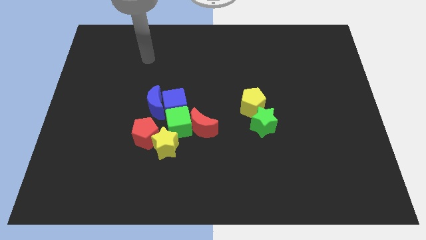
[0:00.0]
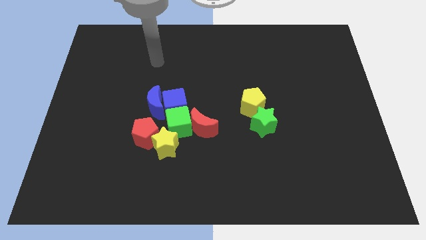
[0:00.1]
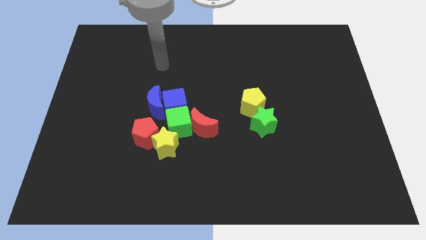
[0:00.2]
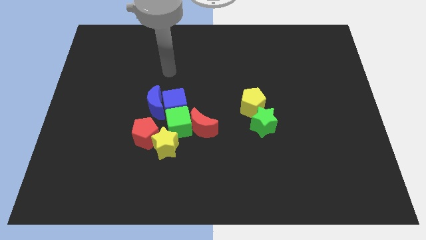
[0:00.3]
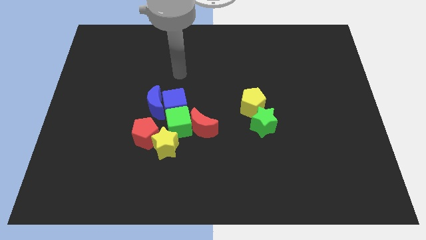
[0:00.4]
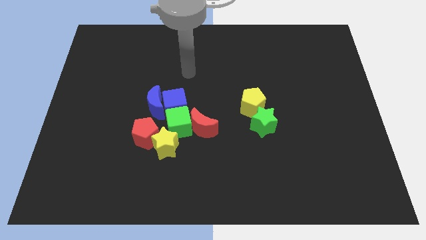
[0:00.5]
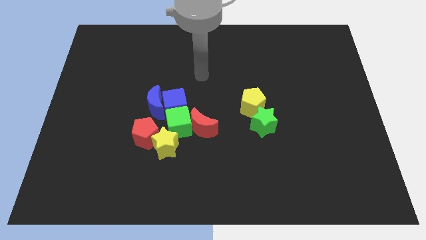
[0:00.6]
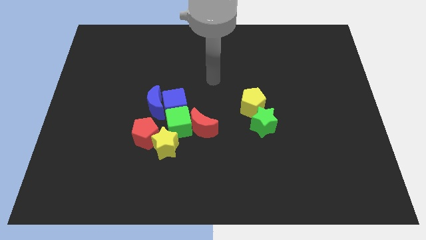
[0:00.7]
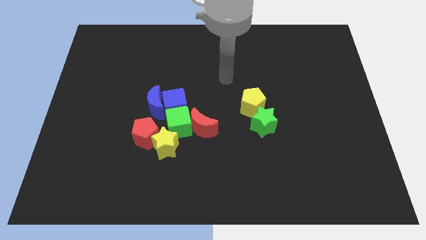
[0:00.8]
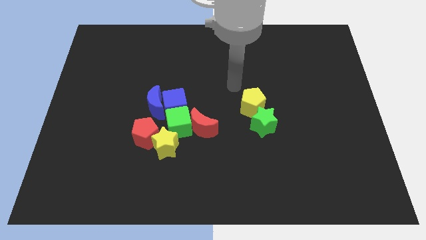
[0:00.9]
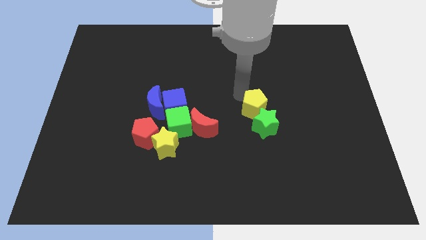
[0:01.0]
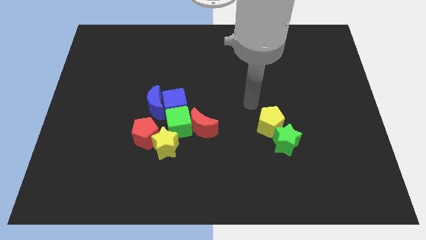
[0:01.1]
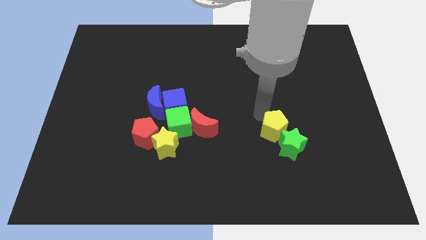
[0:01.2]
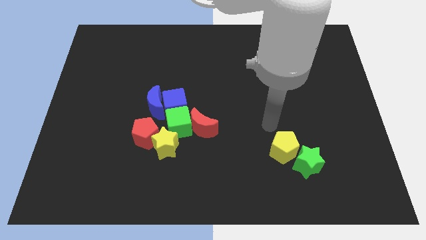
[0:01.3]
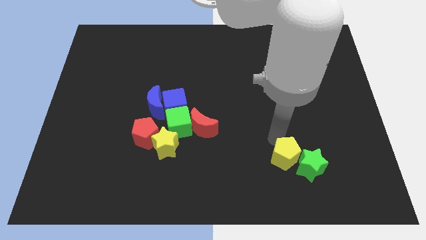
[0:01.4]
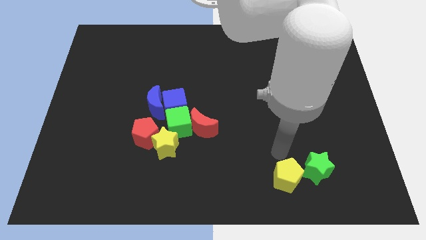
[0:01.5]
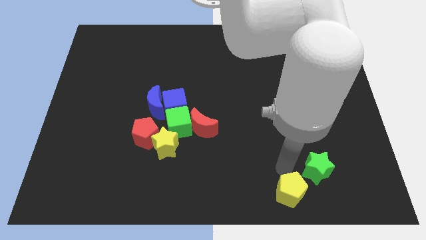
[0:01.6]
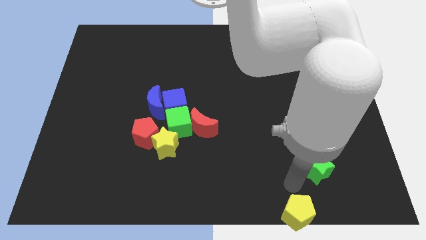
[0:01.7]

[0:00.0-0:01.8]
move the green star away from the yellow pentagon

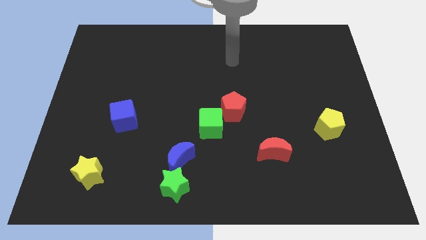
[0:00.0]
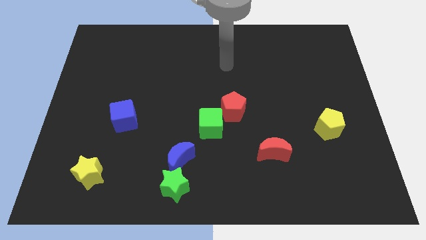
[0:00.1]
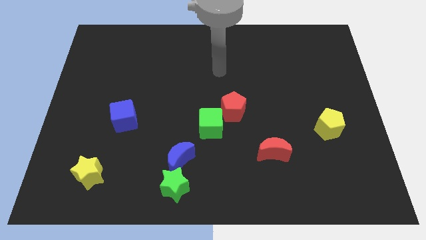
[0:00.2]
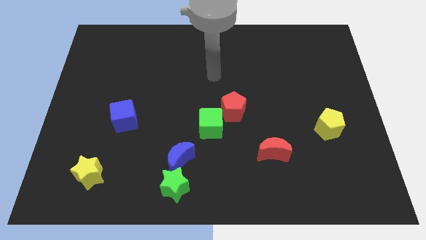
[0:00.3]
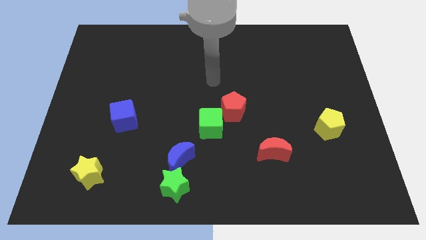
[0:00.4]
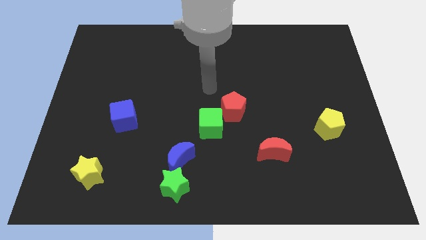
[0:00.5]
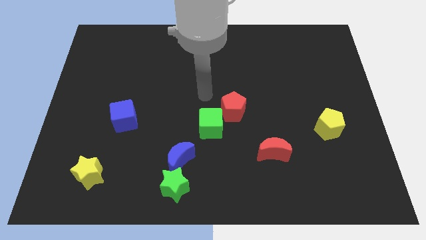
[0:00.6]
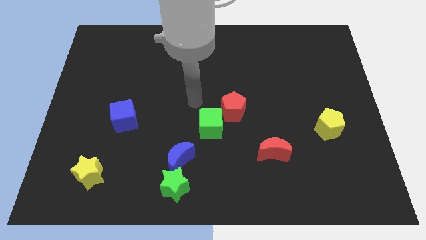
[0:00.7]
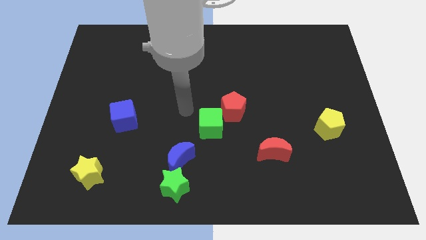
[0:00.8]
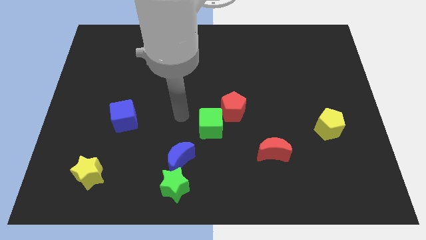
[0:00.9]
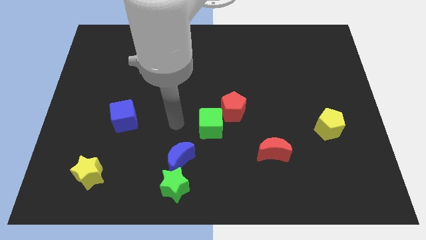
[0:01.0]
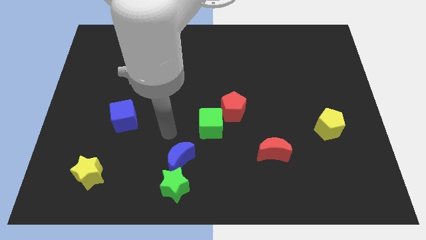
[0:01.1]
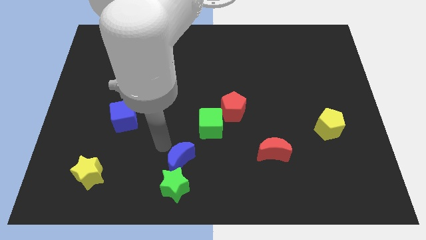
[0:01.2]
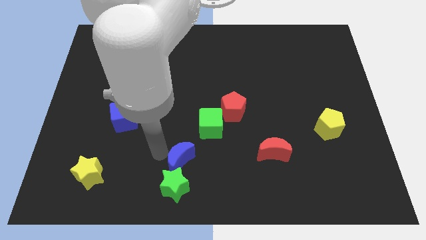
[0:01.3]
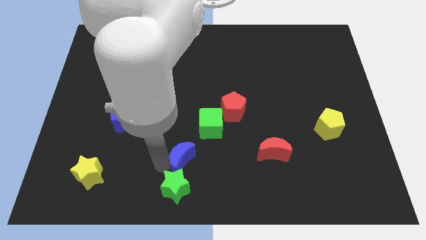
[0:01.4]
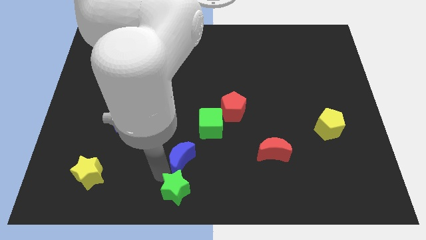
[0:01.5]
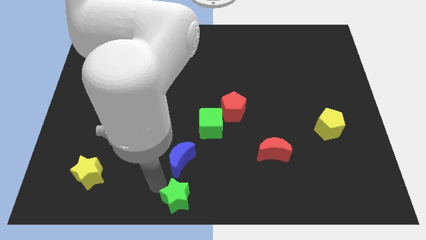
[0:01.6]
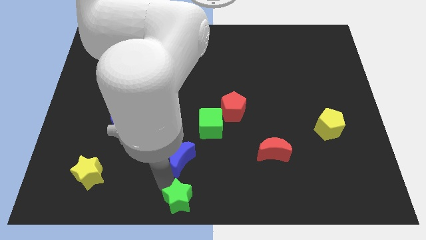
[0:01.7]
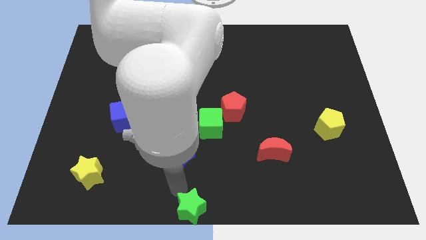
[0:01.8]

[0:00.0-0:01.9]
move the blue moon away from the green star

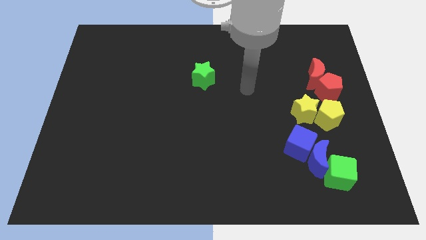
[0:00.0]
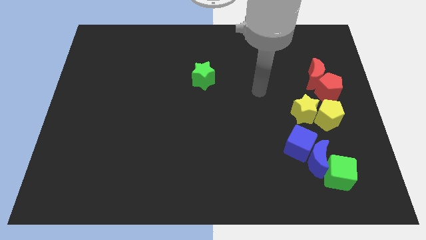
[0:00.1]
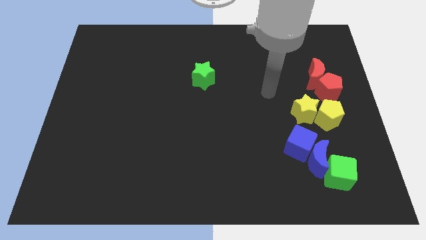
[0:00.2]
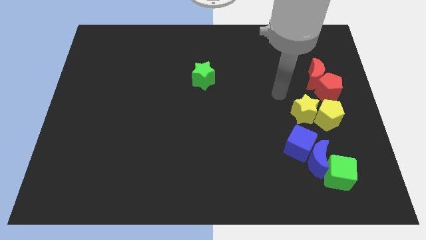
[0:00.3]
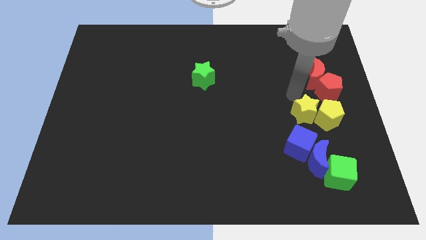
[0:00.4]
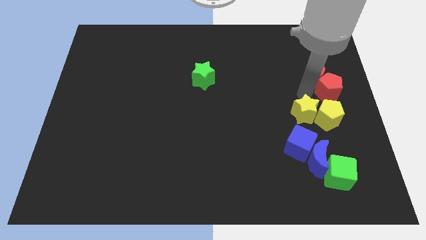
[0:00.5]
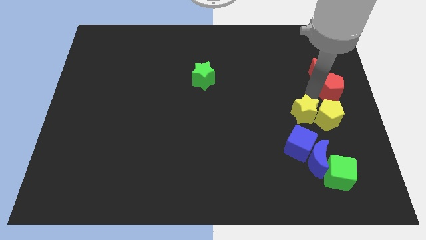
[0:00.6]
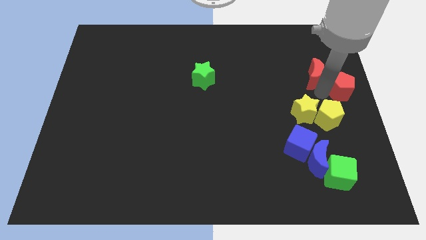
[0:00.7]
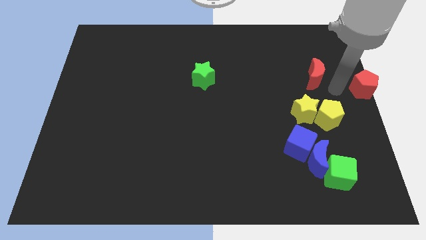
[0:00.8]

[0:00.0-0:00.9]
separate the red moon from the red pentagon

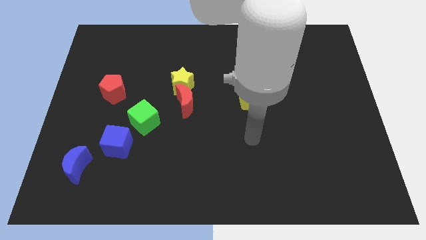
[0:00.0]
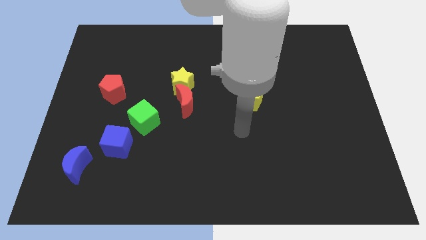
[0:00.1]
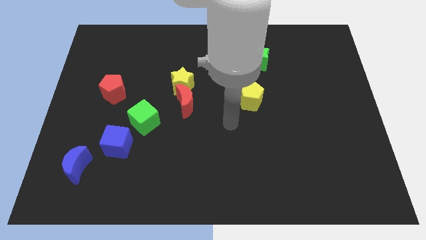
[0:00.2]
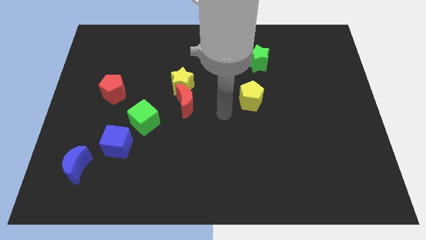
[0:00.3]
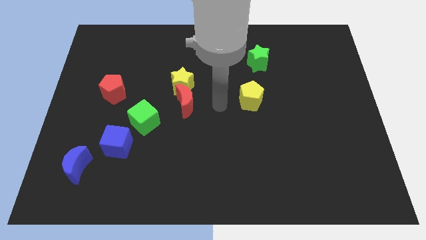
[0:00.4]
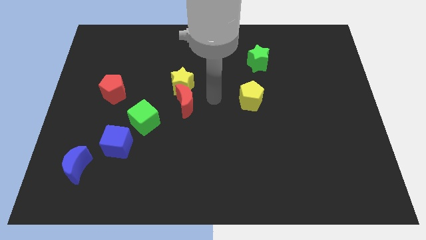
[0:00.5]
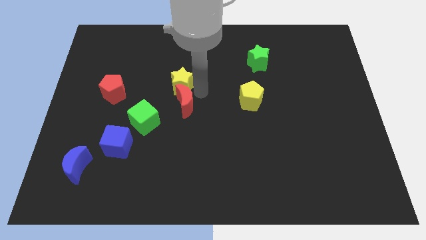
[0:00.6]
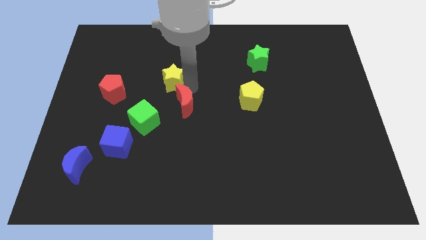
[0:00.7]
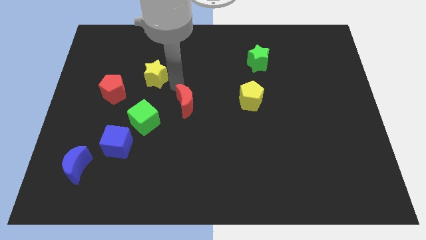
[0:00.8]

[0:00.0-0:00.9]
move the red moon away from the yellow star

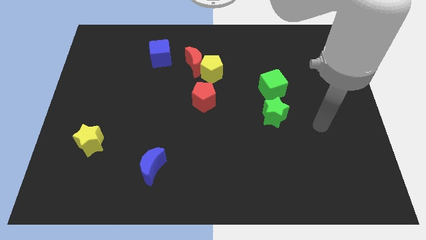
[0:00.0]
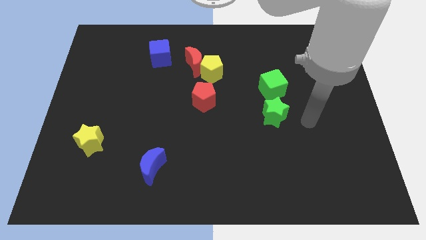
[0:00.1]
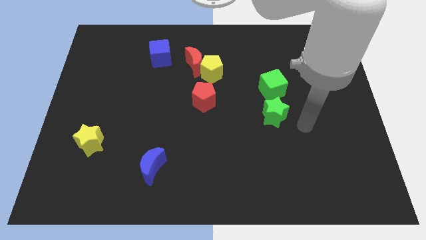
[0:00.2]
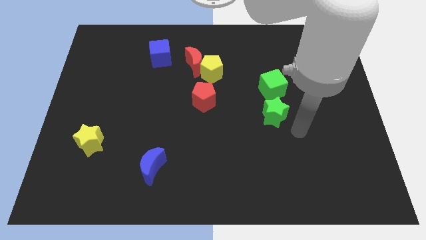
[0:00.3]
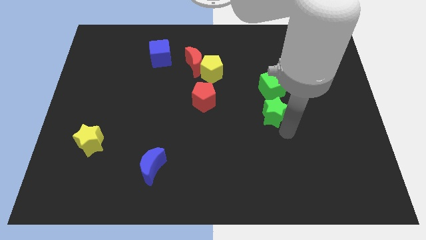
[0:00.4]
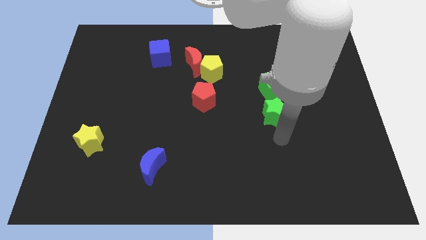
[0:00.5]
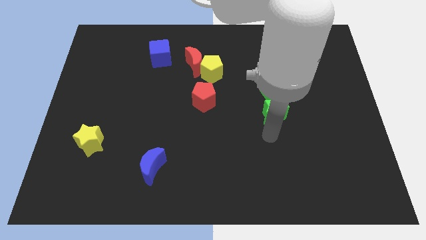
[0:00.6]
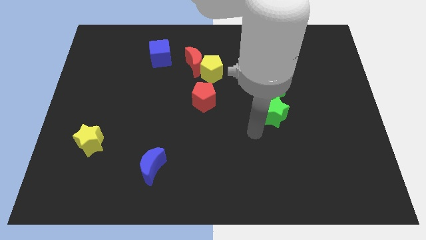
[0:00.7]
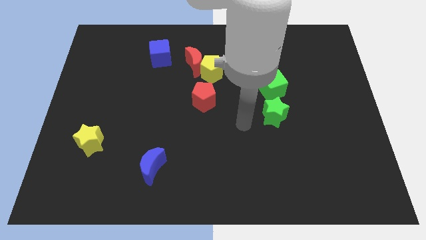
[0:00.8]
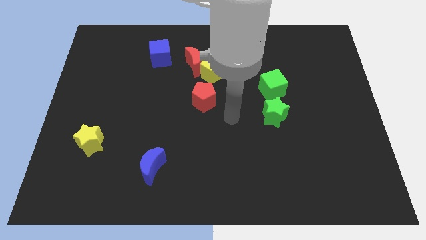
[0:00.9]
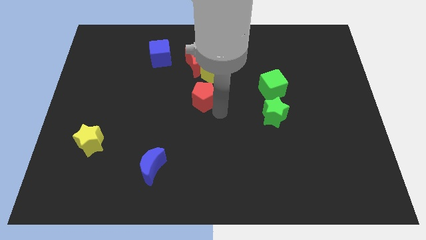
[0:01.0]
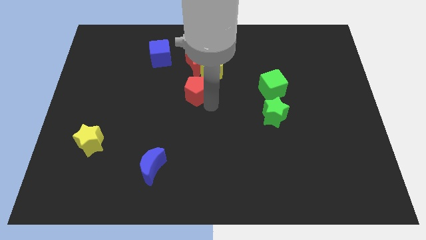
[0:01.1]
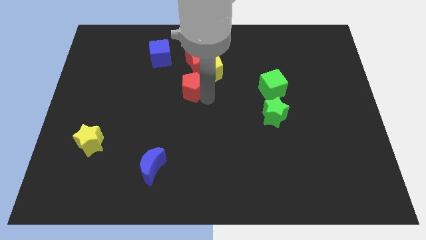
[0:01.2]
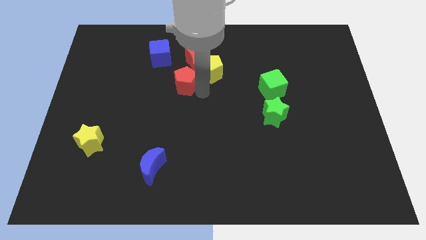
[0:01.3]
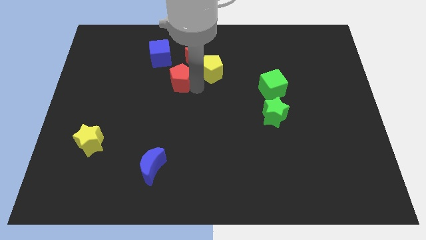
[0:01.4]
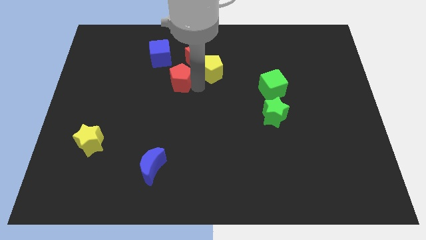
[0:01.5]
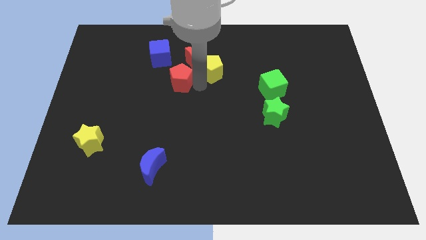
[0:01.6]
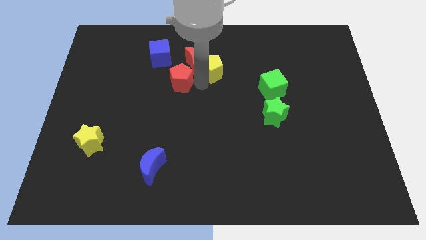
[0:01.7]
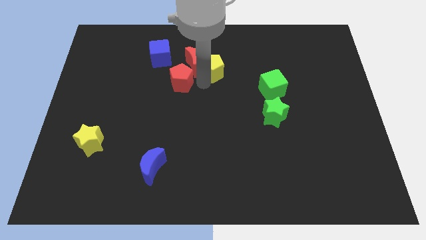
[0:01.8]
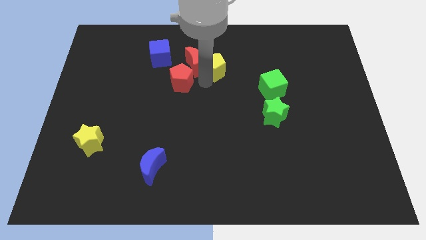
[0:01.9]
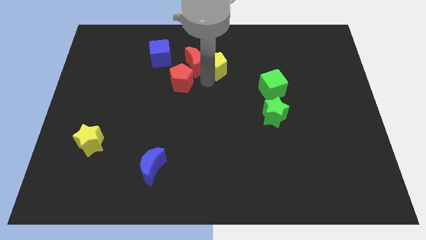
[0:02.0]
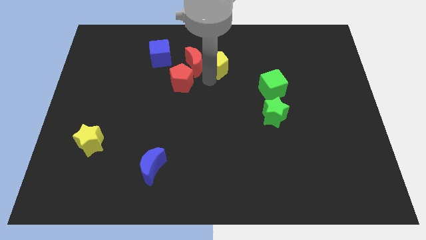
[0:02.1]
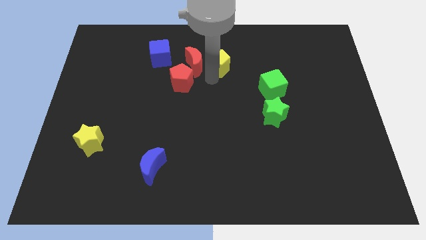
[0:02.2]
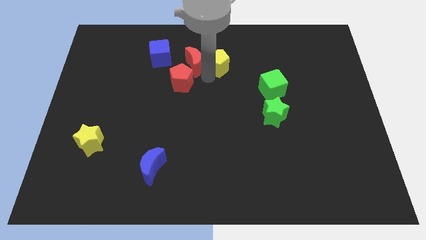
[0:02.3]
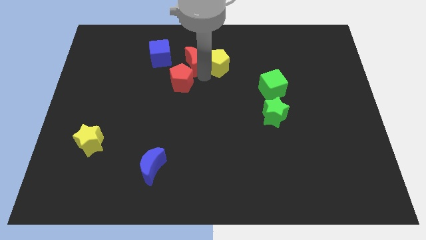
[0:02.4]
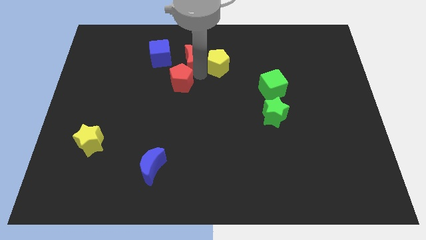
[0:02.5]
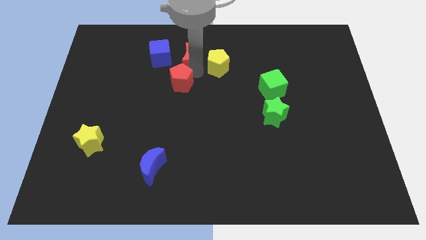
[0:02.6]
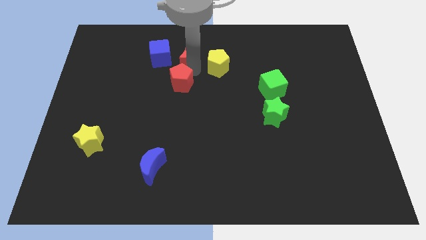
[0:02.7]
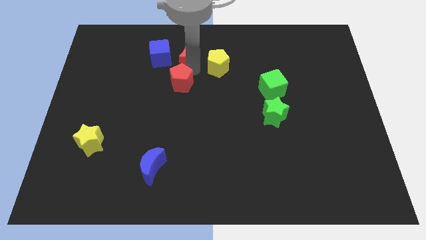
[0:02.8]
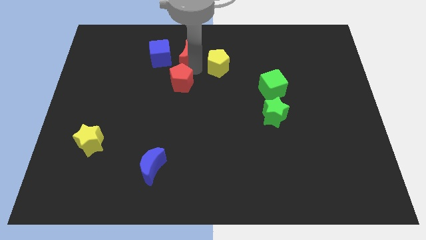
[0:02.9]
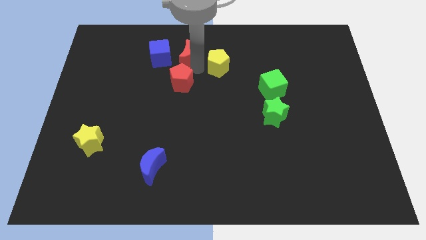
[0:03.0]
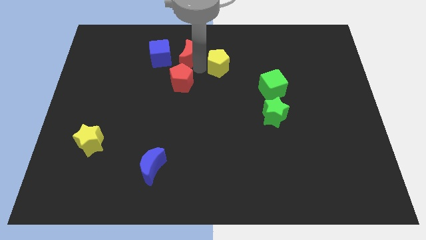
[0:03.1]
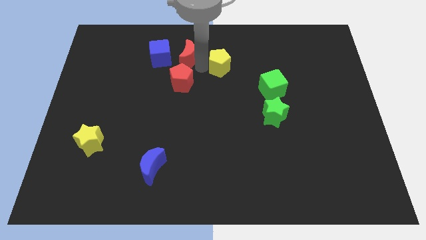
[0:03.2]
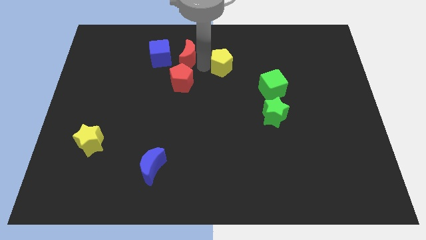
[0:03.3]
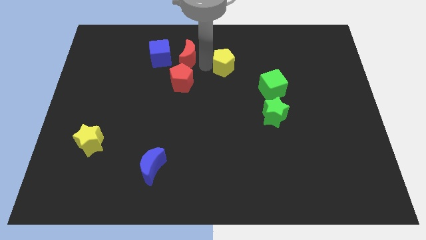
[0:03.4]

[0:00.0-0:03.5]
move the yellow pentagon away from the red moon and red pentagon

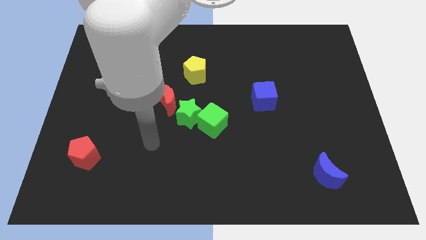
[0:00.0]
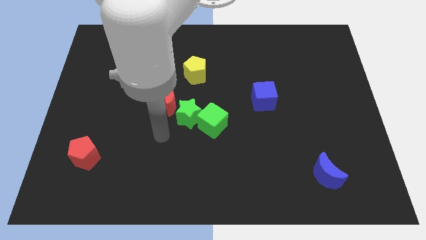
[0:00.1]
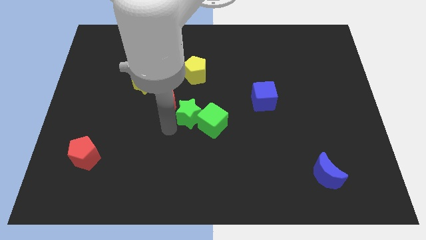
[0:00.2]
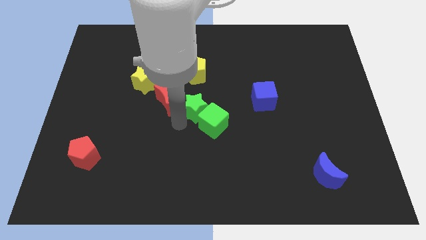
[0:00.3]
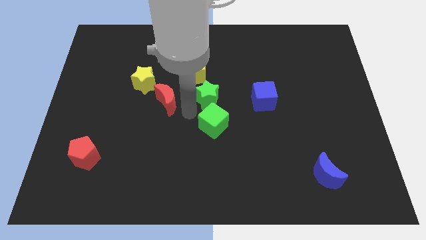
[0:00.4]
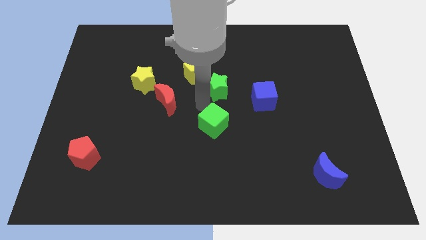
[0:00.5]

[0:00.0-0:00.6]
pull the green cube apart from the green star
